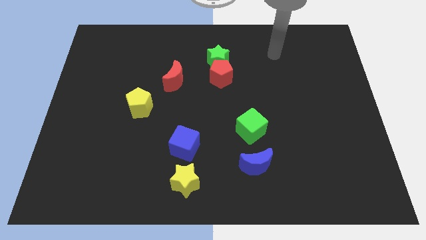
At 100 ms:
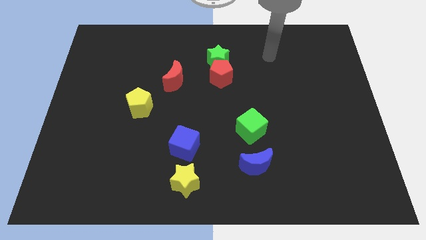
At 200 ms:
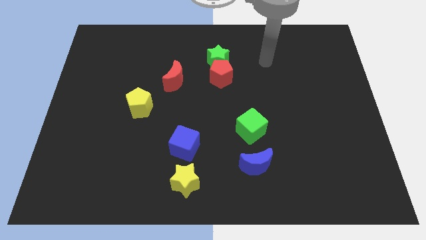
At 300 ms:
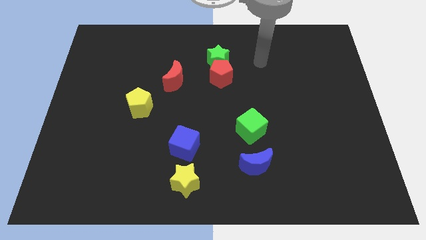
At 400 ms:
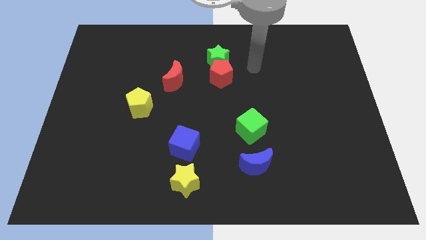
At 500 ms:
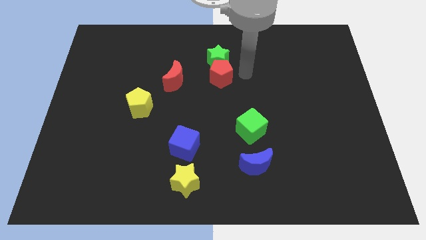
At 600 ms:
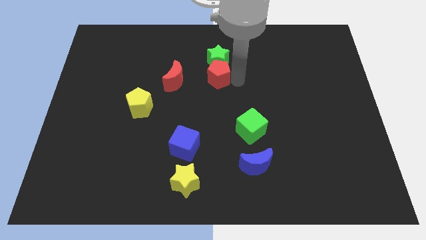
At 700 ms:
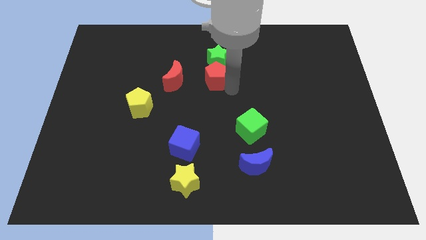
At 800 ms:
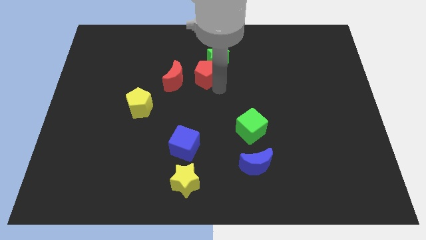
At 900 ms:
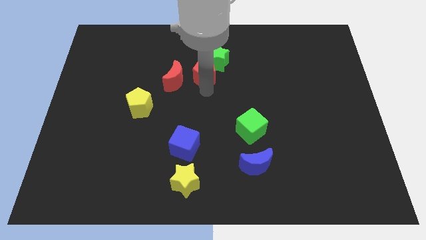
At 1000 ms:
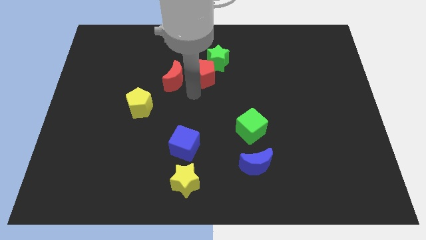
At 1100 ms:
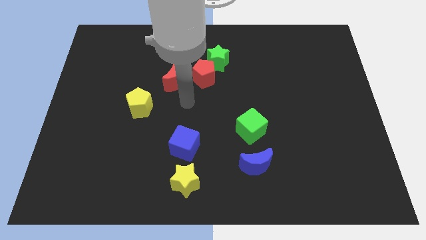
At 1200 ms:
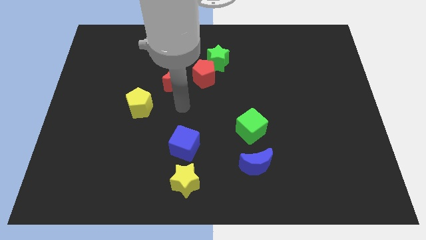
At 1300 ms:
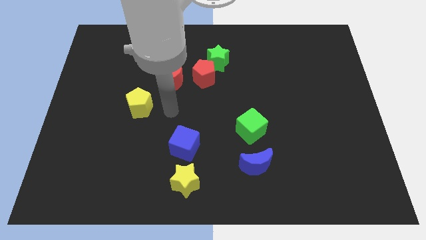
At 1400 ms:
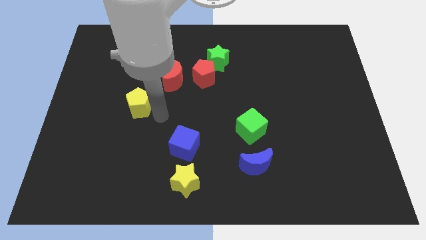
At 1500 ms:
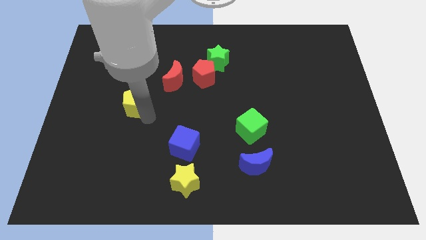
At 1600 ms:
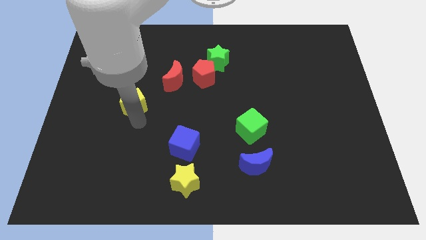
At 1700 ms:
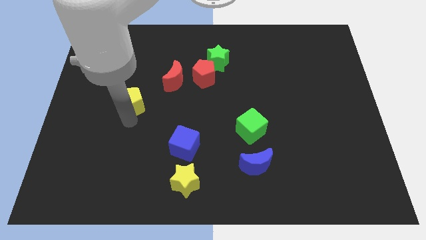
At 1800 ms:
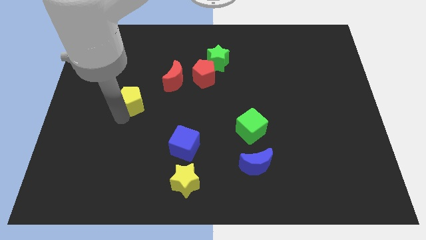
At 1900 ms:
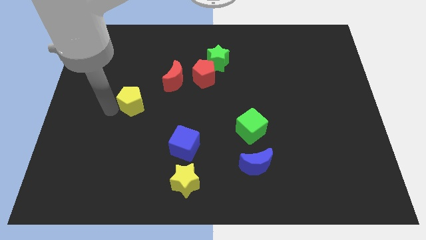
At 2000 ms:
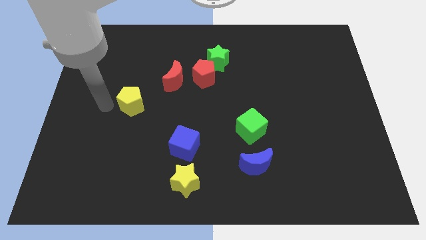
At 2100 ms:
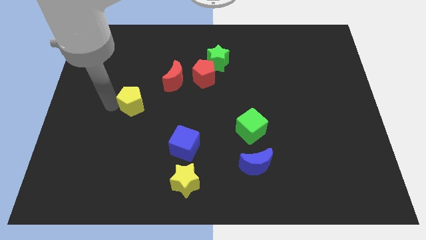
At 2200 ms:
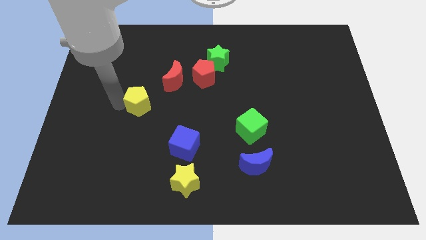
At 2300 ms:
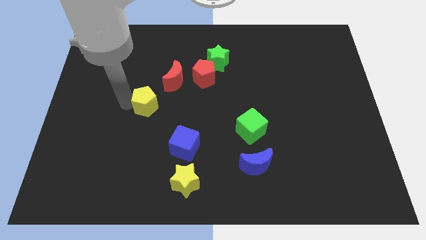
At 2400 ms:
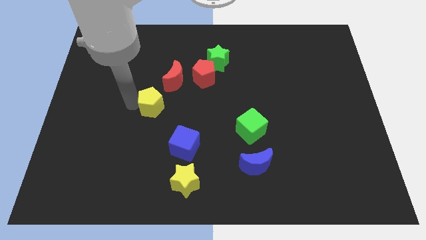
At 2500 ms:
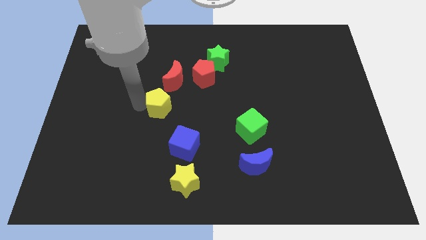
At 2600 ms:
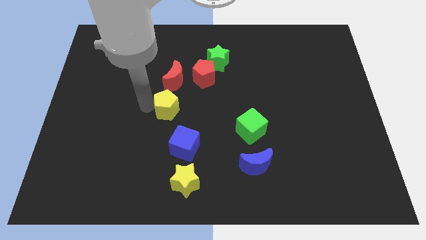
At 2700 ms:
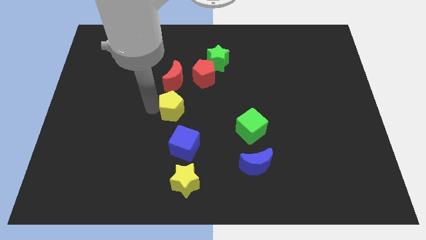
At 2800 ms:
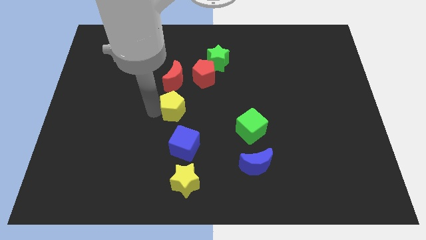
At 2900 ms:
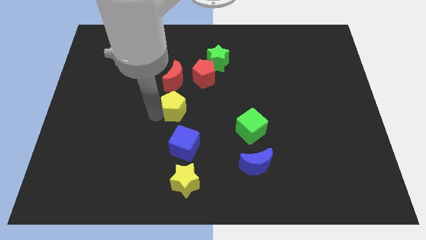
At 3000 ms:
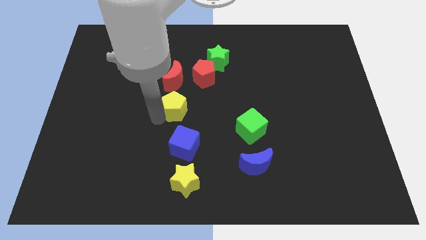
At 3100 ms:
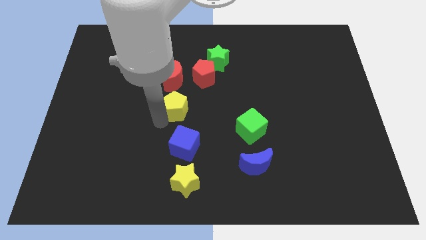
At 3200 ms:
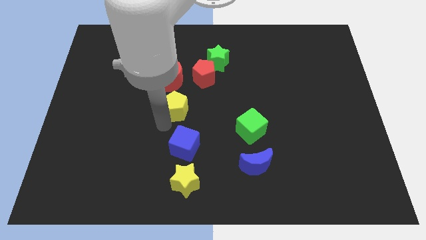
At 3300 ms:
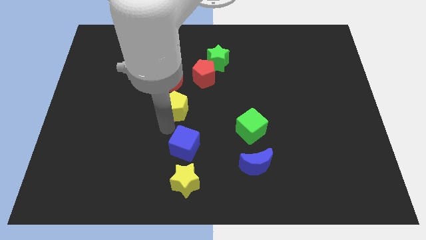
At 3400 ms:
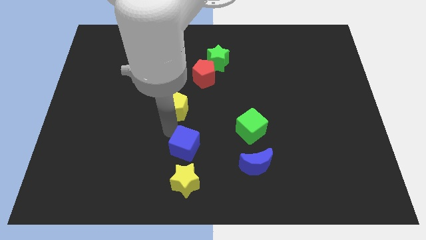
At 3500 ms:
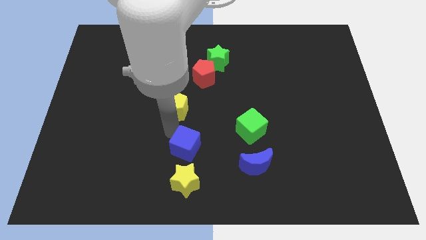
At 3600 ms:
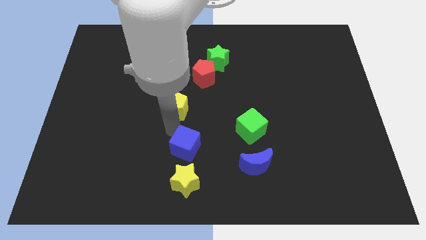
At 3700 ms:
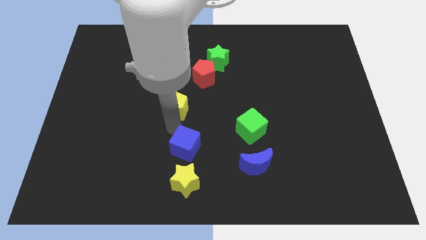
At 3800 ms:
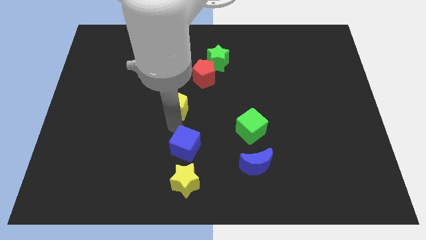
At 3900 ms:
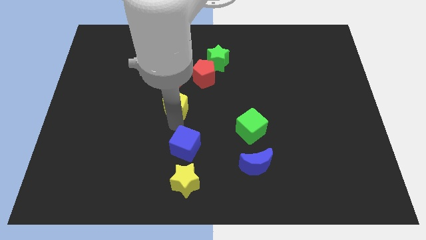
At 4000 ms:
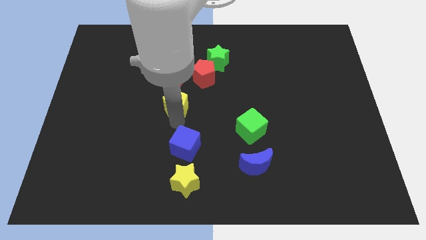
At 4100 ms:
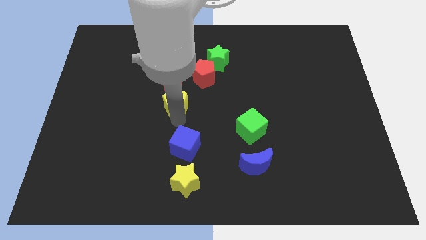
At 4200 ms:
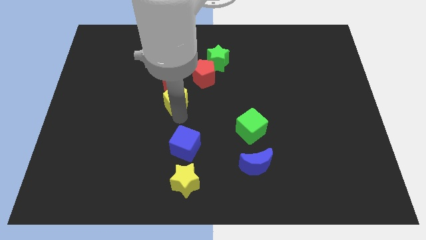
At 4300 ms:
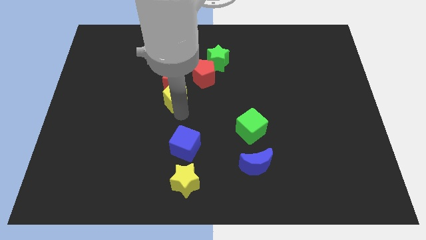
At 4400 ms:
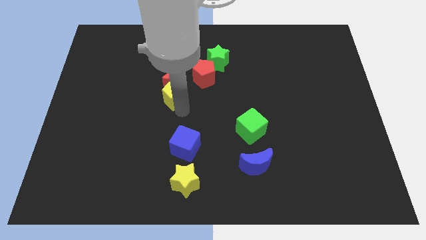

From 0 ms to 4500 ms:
slightly move the yellow pentagon up and right

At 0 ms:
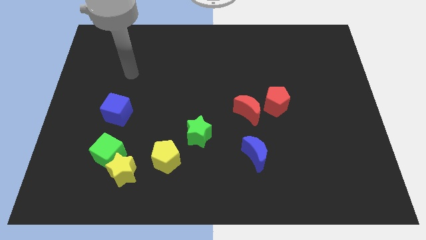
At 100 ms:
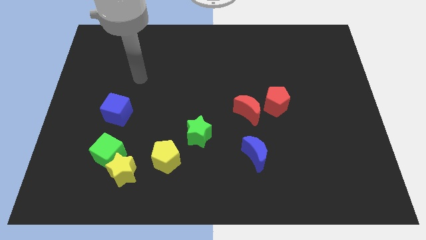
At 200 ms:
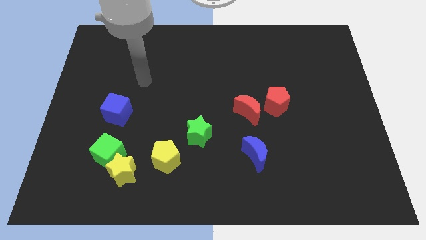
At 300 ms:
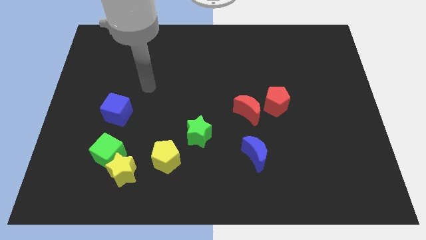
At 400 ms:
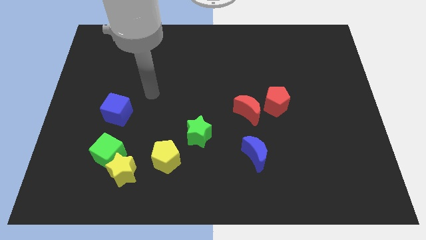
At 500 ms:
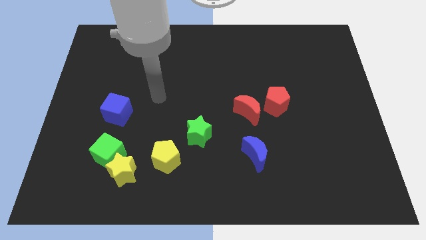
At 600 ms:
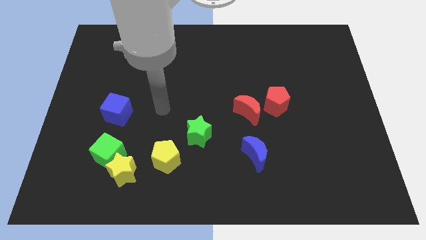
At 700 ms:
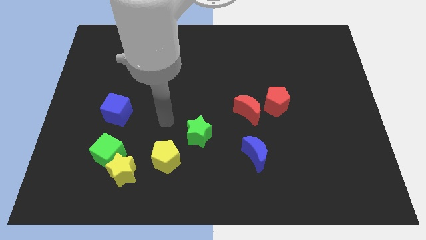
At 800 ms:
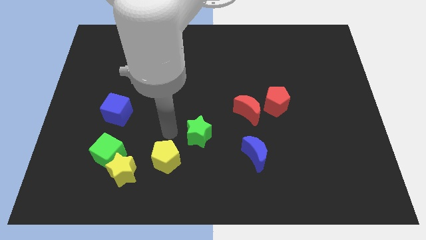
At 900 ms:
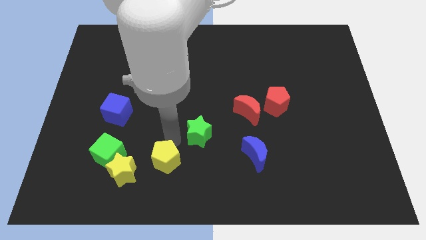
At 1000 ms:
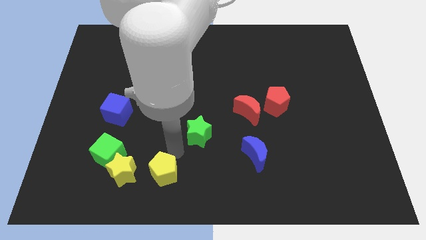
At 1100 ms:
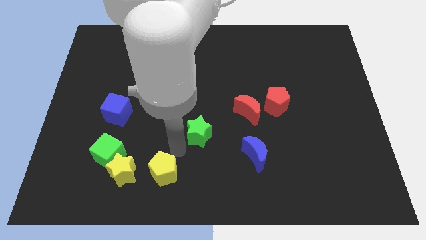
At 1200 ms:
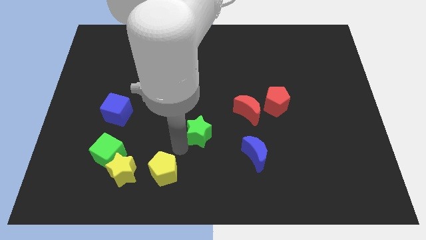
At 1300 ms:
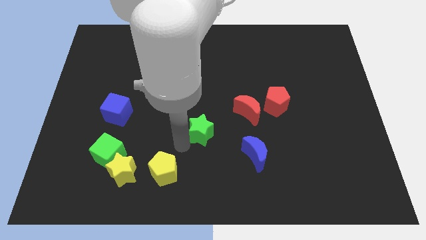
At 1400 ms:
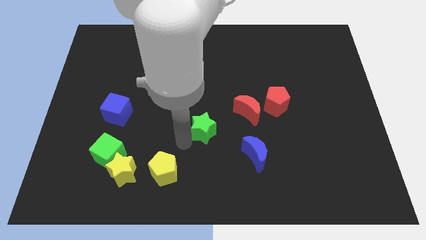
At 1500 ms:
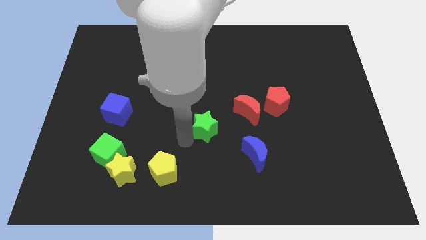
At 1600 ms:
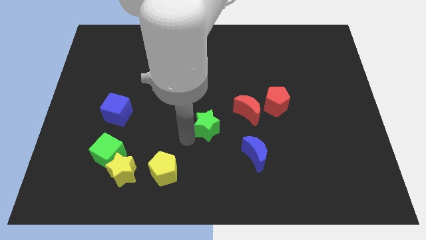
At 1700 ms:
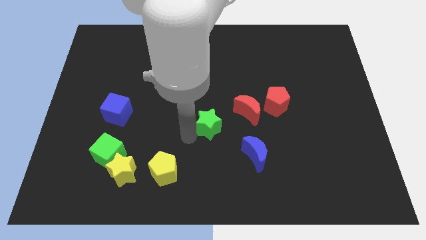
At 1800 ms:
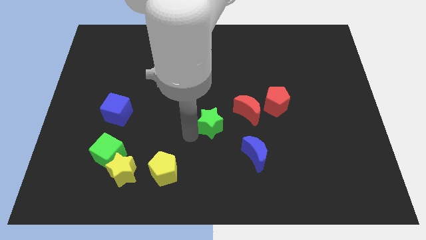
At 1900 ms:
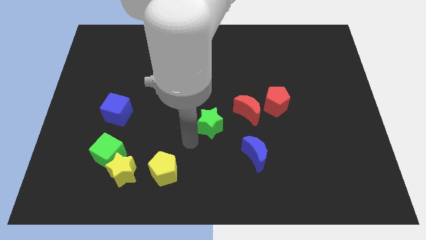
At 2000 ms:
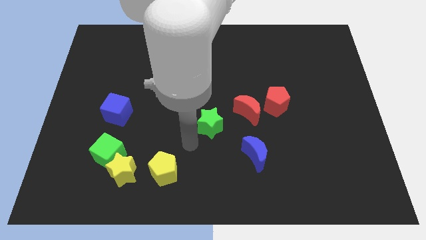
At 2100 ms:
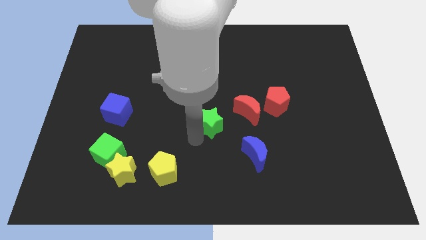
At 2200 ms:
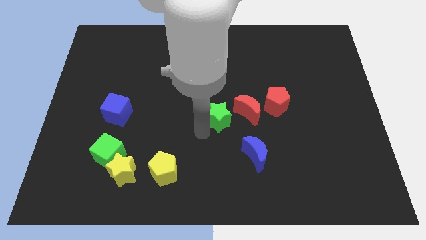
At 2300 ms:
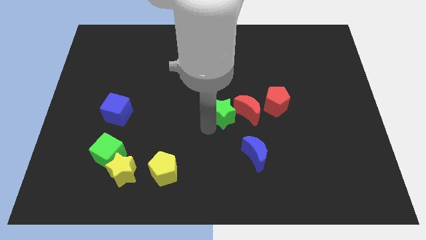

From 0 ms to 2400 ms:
slightly push the green star upwards and then to the right

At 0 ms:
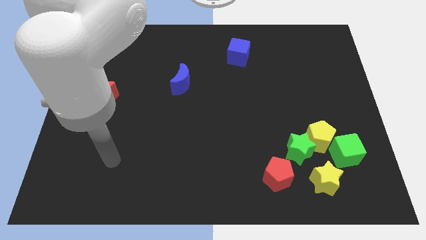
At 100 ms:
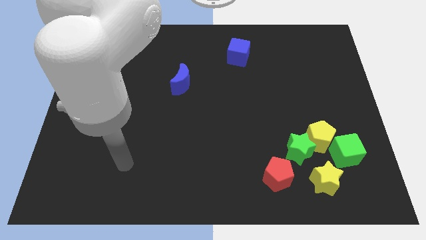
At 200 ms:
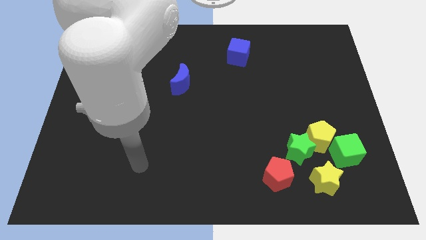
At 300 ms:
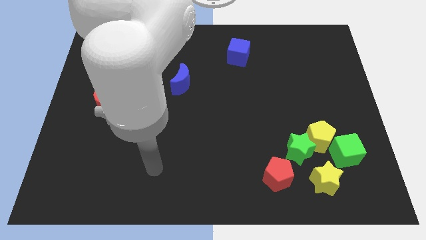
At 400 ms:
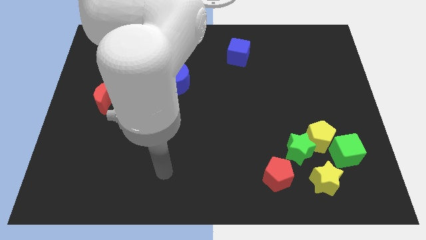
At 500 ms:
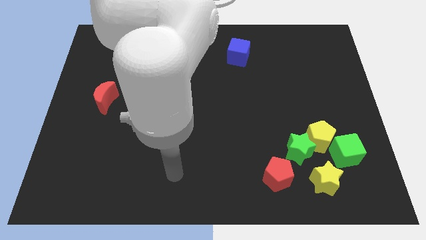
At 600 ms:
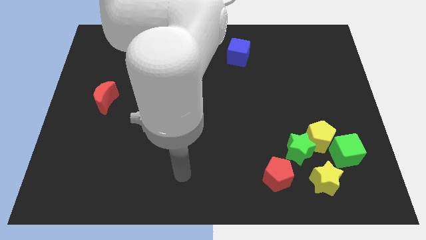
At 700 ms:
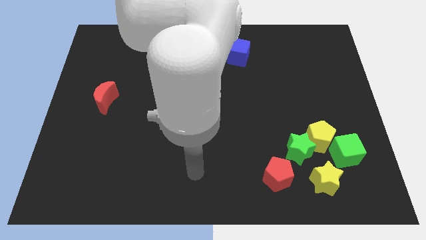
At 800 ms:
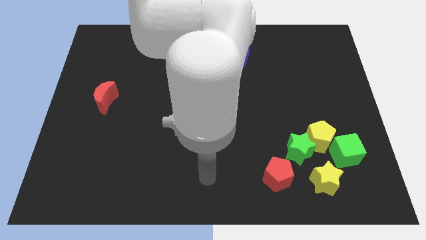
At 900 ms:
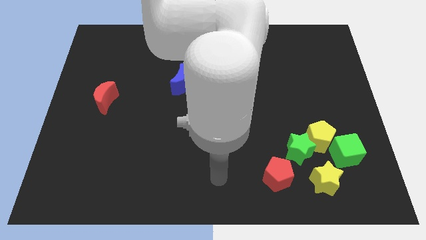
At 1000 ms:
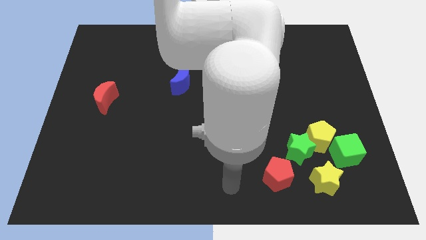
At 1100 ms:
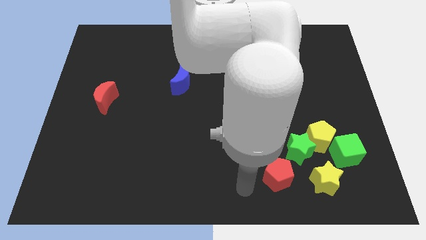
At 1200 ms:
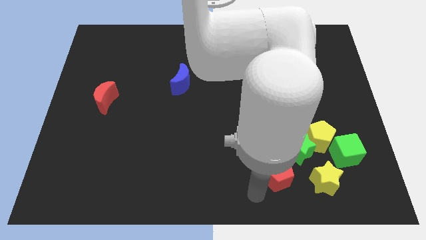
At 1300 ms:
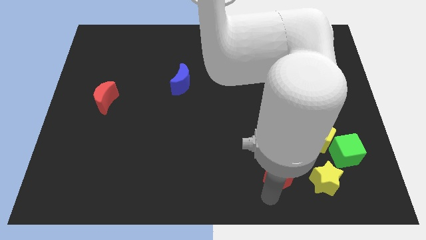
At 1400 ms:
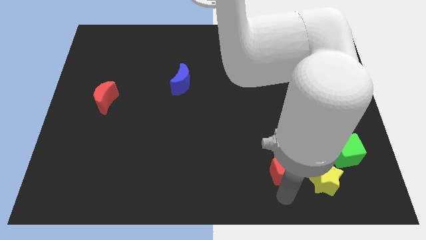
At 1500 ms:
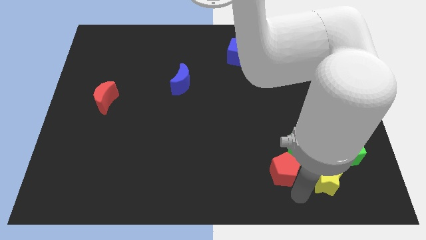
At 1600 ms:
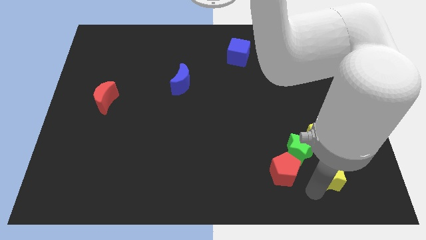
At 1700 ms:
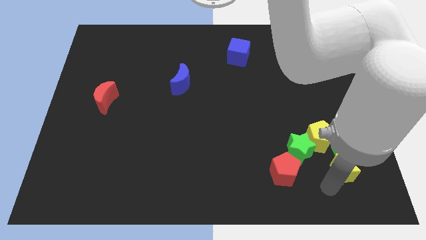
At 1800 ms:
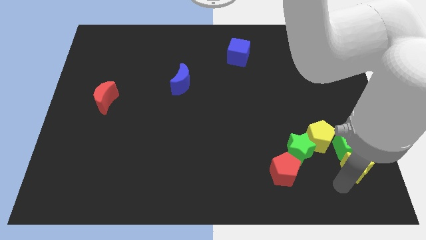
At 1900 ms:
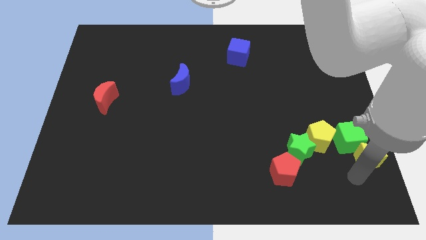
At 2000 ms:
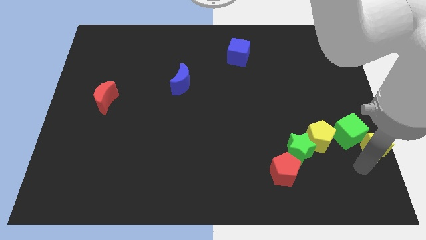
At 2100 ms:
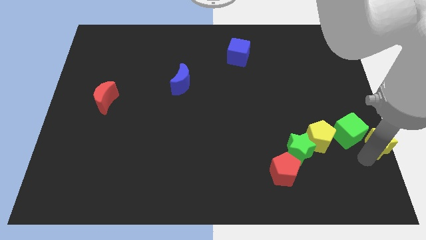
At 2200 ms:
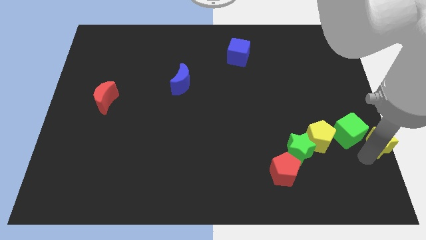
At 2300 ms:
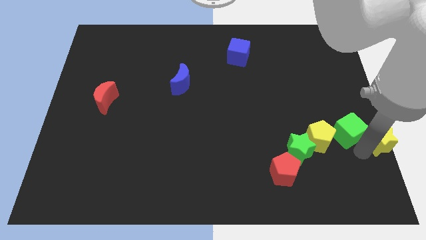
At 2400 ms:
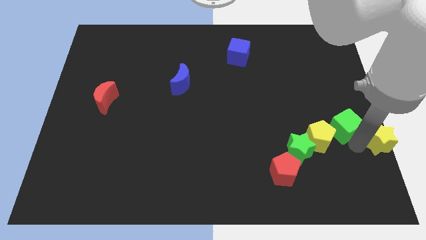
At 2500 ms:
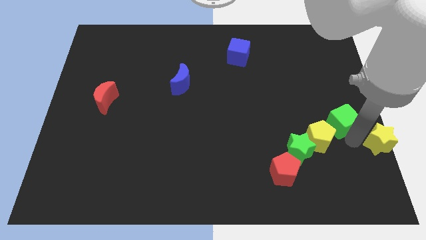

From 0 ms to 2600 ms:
slide the green cube upwards slightly
